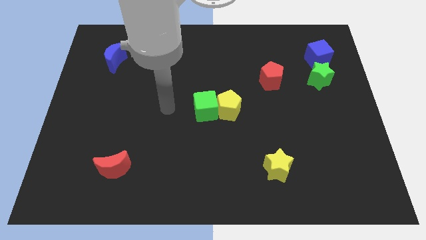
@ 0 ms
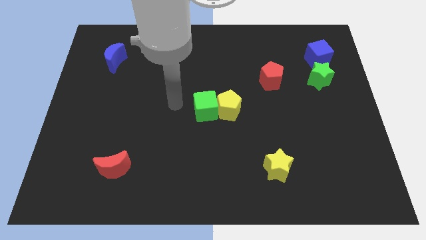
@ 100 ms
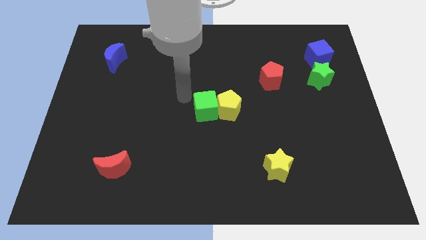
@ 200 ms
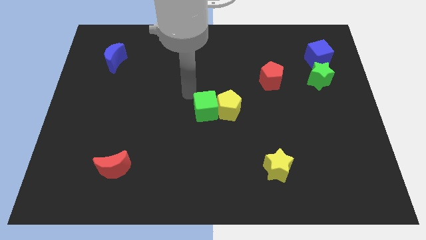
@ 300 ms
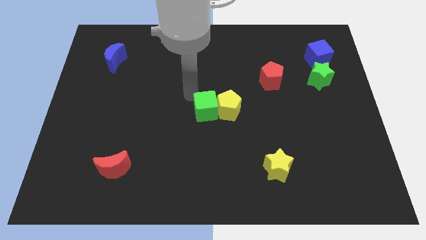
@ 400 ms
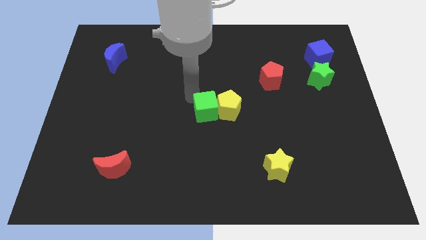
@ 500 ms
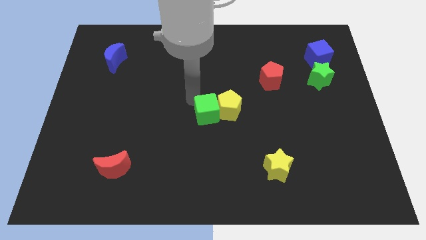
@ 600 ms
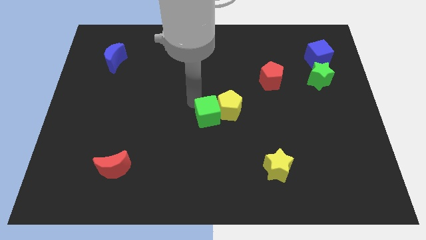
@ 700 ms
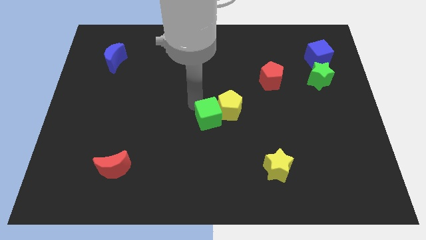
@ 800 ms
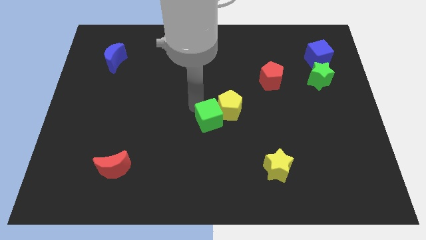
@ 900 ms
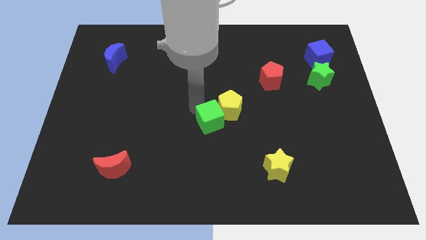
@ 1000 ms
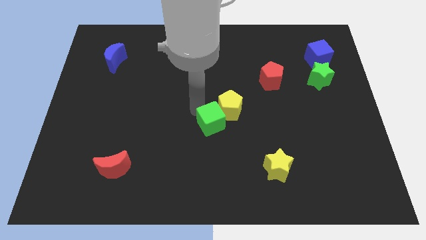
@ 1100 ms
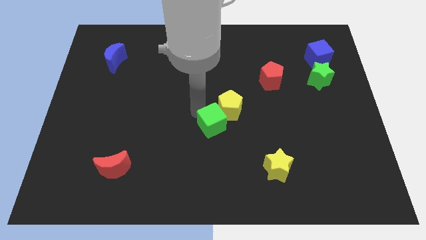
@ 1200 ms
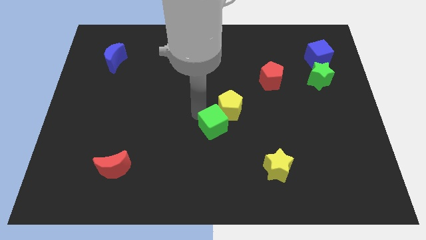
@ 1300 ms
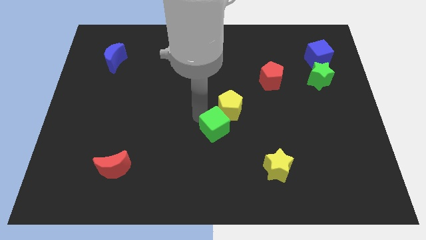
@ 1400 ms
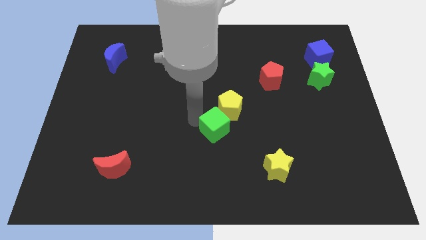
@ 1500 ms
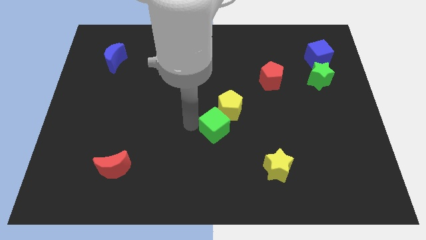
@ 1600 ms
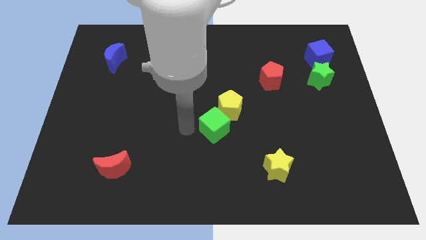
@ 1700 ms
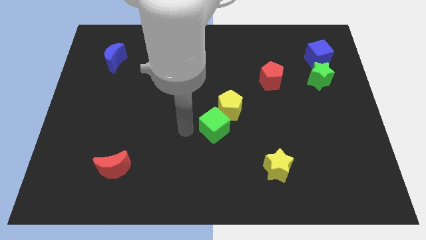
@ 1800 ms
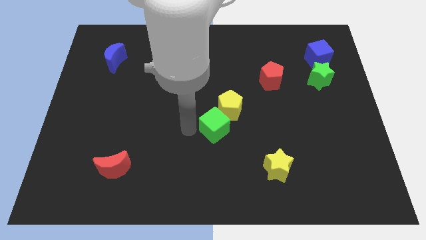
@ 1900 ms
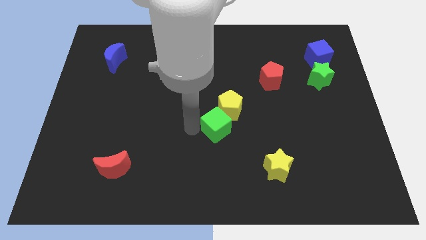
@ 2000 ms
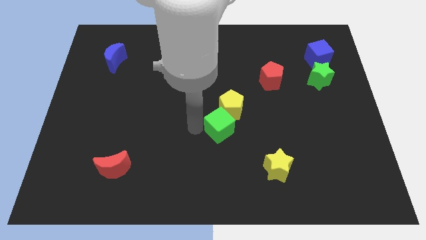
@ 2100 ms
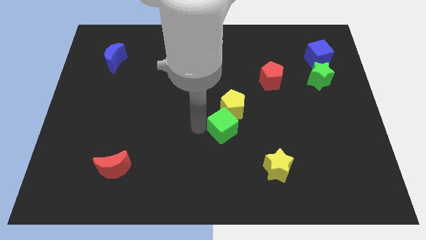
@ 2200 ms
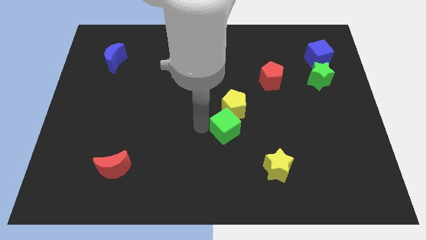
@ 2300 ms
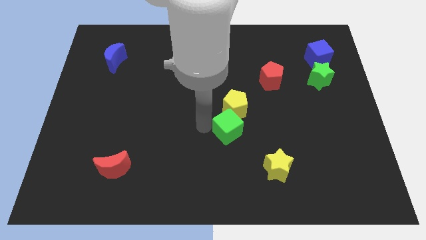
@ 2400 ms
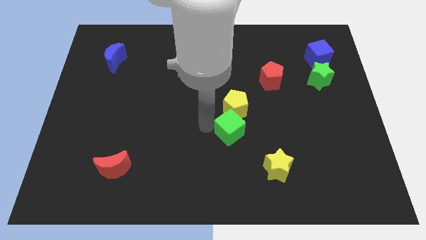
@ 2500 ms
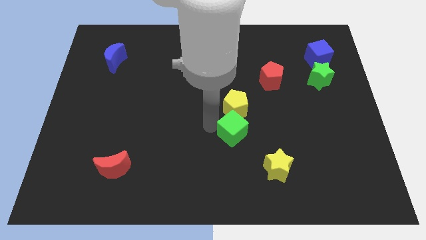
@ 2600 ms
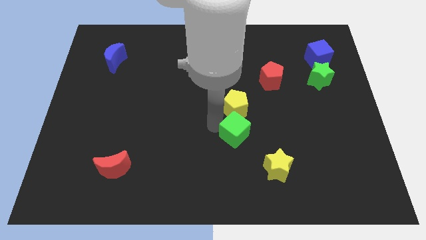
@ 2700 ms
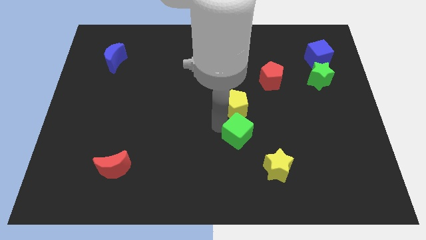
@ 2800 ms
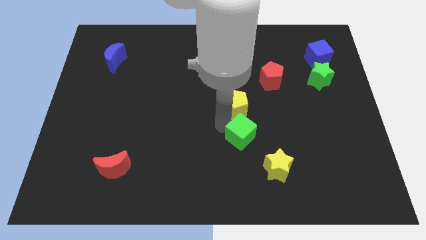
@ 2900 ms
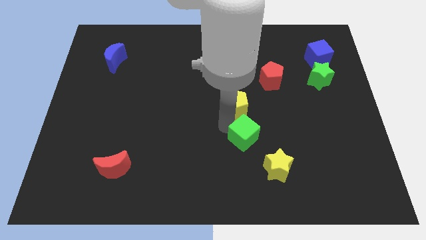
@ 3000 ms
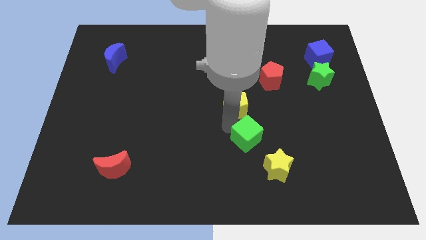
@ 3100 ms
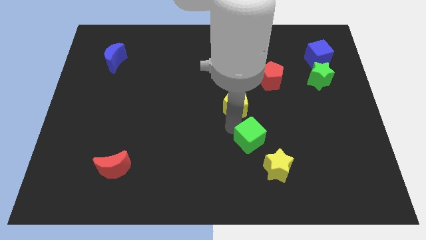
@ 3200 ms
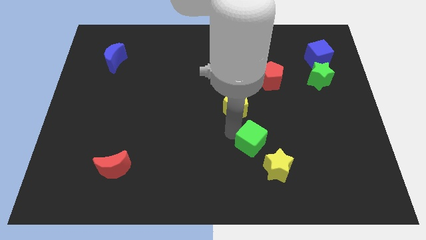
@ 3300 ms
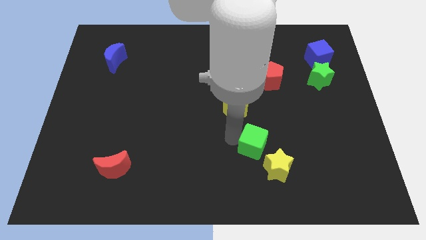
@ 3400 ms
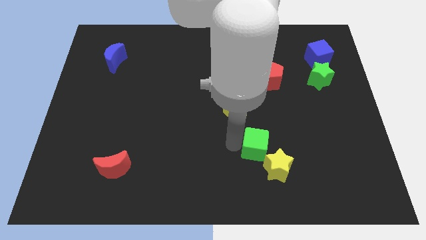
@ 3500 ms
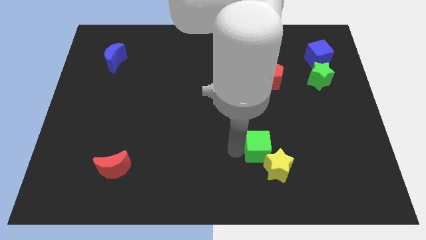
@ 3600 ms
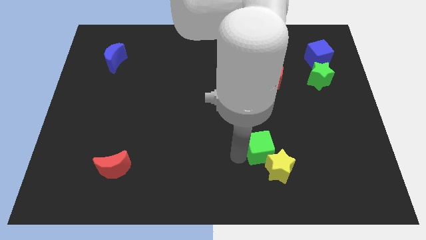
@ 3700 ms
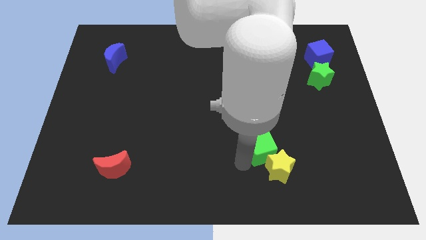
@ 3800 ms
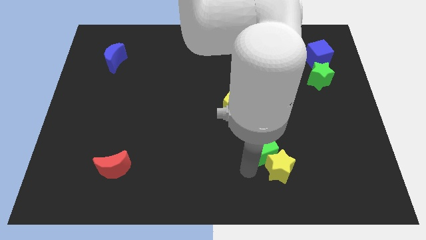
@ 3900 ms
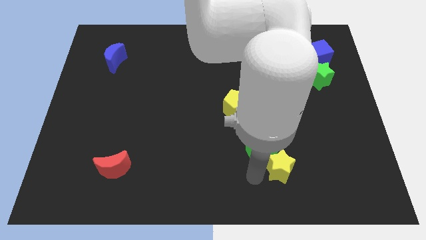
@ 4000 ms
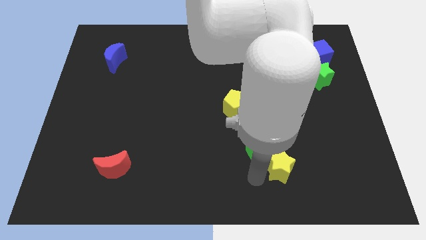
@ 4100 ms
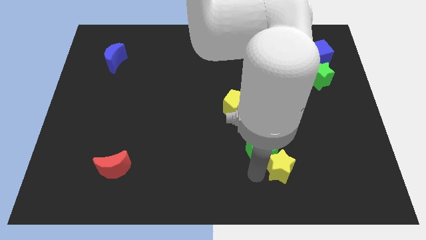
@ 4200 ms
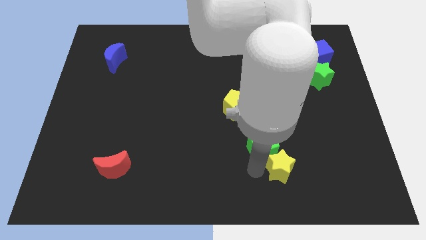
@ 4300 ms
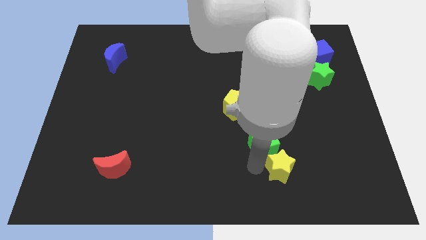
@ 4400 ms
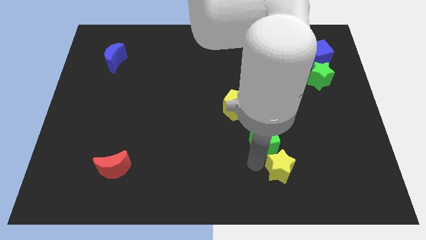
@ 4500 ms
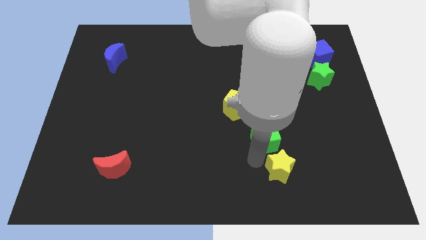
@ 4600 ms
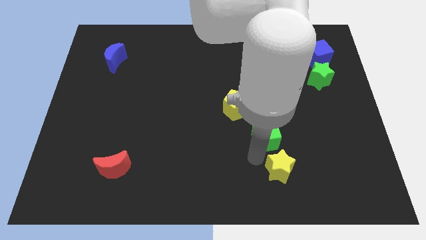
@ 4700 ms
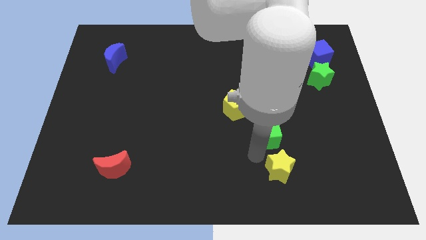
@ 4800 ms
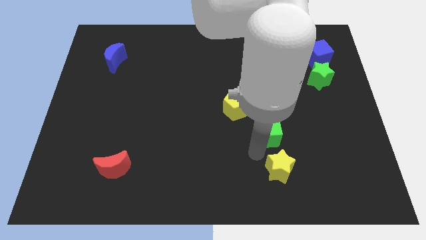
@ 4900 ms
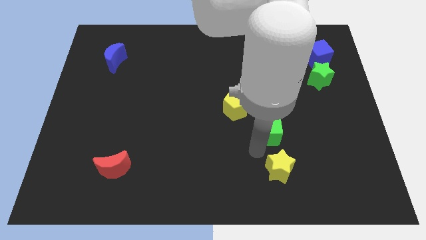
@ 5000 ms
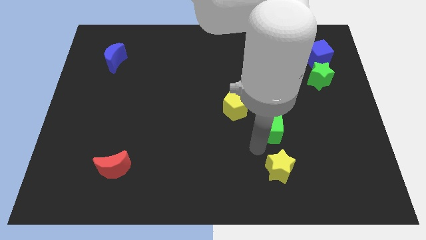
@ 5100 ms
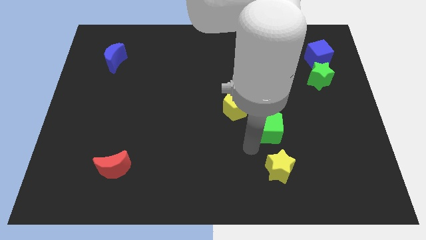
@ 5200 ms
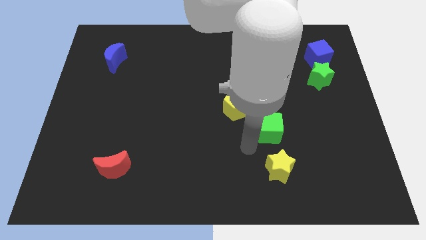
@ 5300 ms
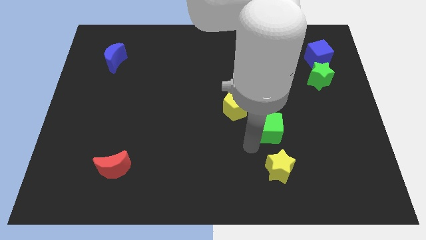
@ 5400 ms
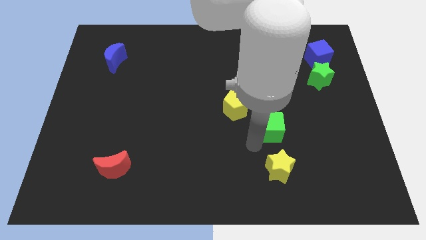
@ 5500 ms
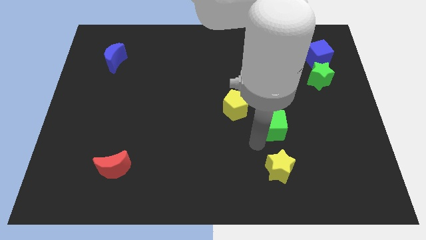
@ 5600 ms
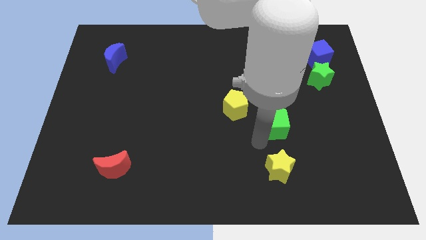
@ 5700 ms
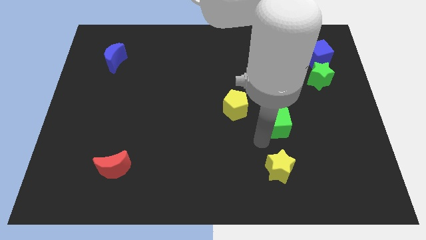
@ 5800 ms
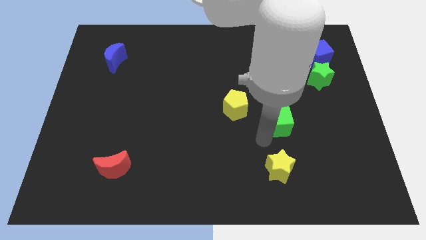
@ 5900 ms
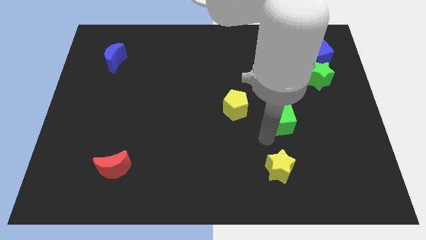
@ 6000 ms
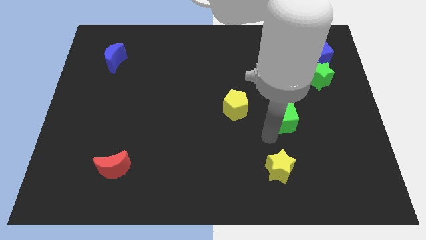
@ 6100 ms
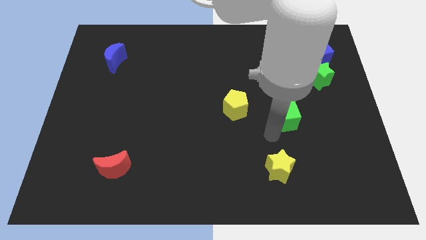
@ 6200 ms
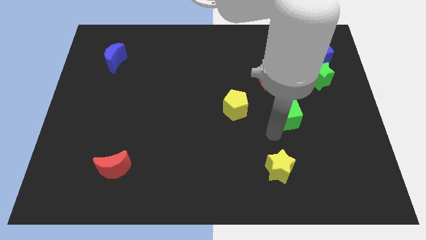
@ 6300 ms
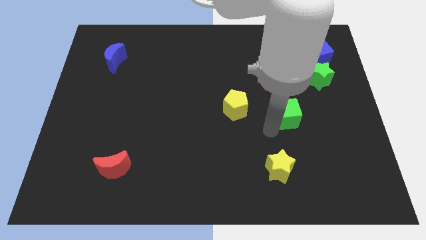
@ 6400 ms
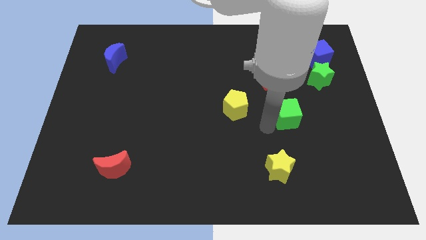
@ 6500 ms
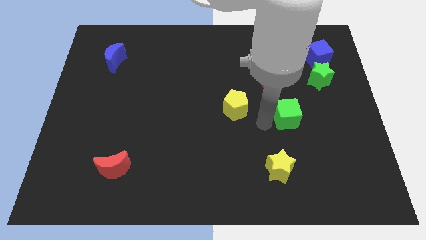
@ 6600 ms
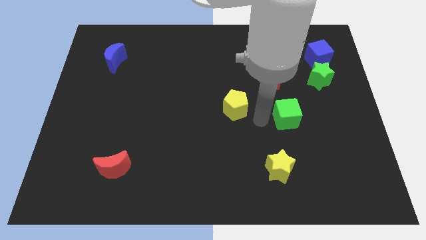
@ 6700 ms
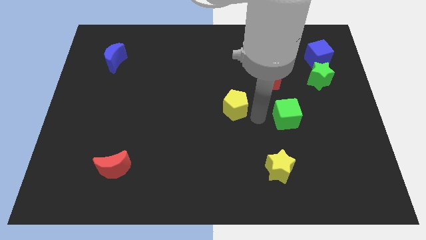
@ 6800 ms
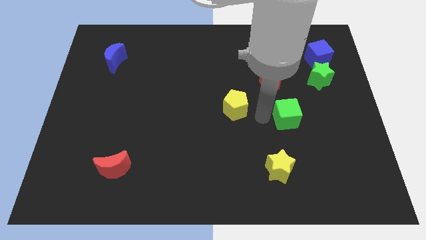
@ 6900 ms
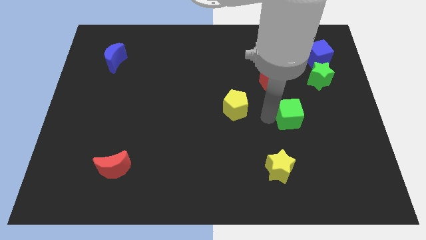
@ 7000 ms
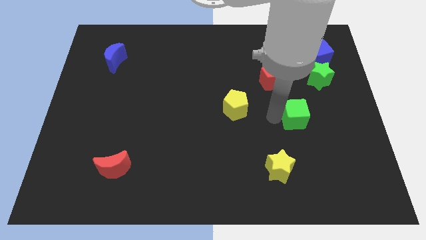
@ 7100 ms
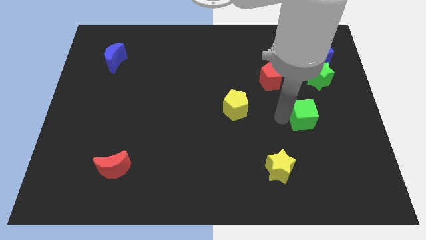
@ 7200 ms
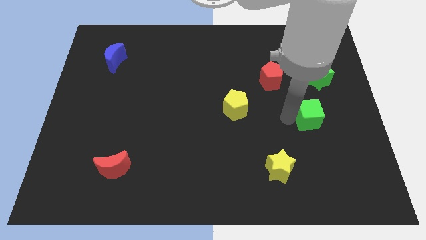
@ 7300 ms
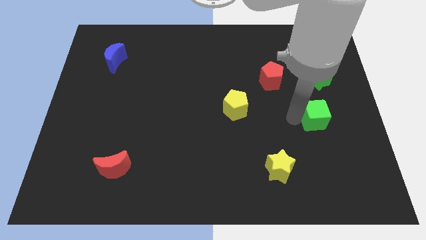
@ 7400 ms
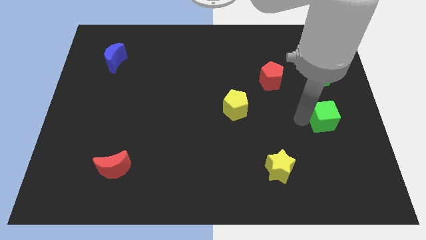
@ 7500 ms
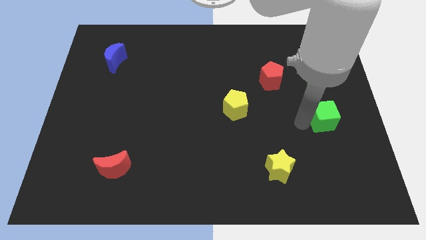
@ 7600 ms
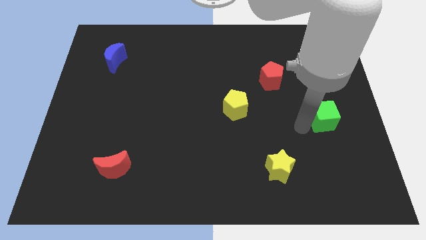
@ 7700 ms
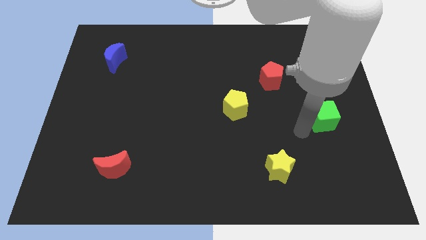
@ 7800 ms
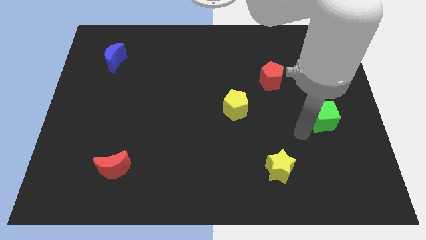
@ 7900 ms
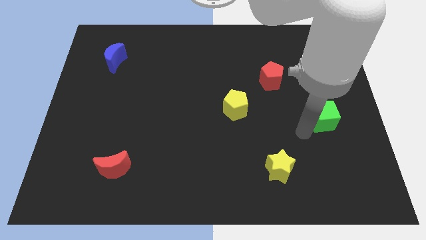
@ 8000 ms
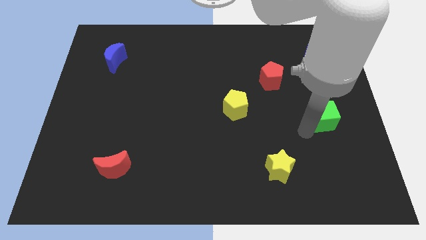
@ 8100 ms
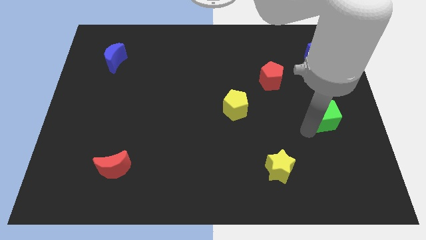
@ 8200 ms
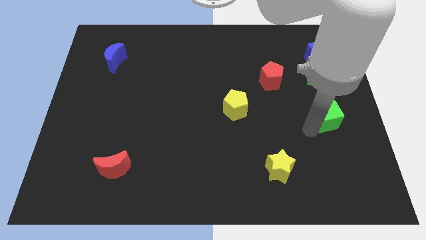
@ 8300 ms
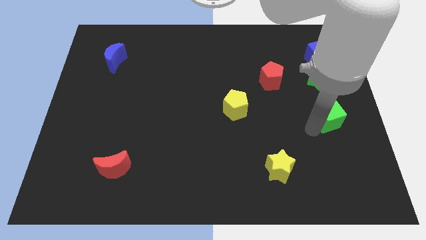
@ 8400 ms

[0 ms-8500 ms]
move the green cube to the right side of the board
